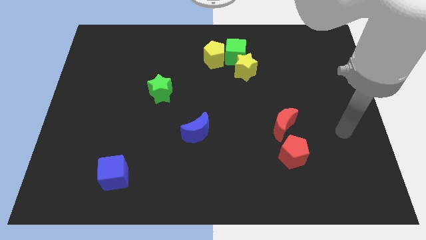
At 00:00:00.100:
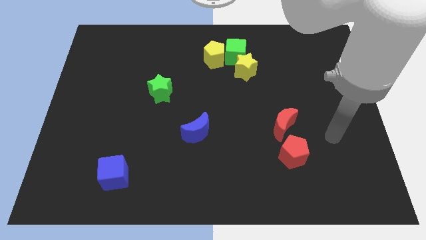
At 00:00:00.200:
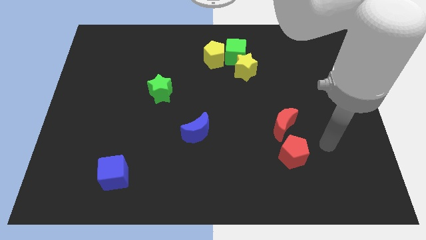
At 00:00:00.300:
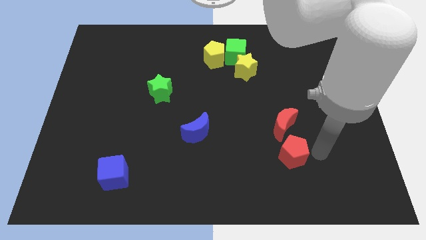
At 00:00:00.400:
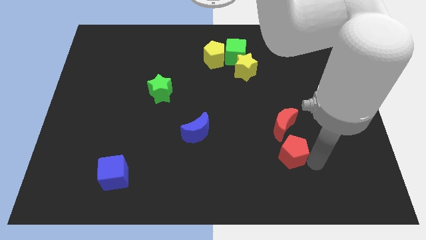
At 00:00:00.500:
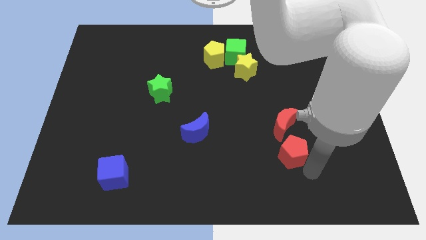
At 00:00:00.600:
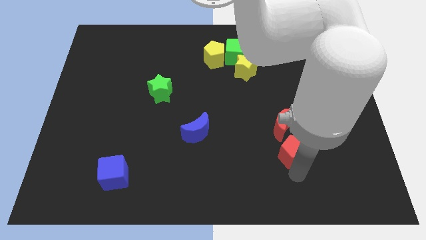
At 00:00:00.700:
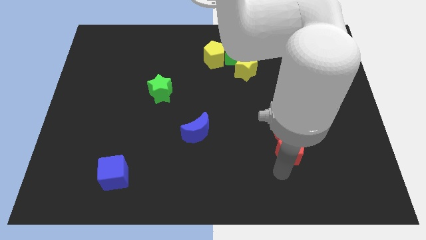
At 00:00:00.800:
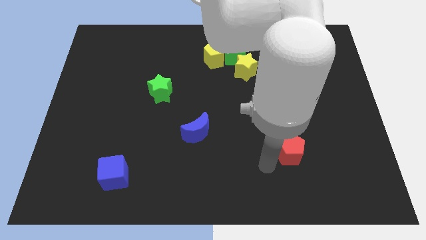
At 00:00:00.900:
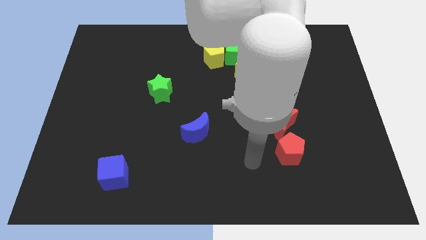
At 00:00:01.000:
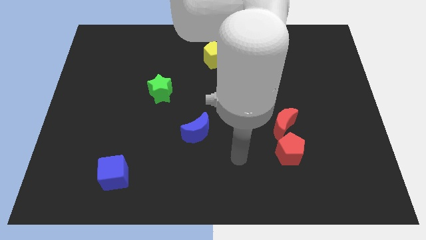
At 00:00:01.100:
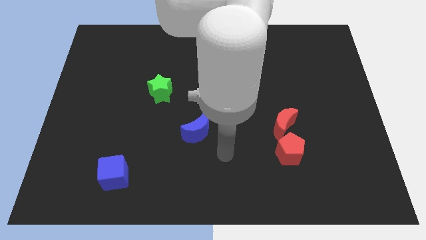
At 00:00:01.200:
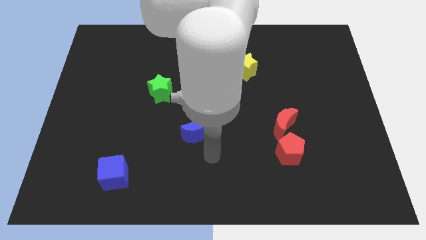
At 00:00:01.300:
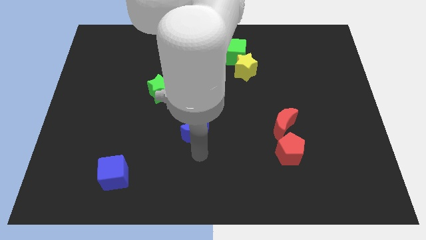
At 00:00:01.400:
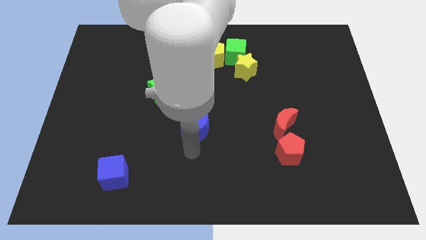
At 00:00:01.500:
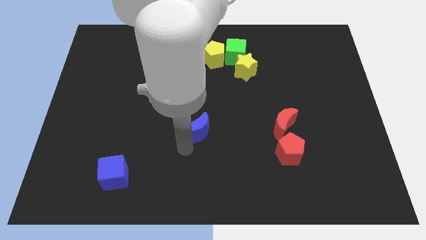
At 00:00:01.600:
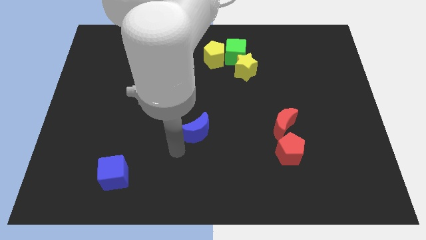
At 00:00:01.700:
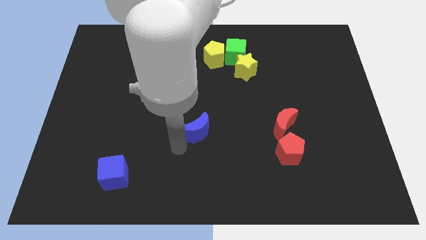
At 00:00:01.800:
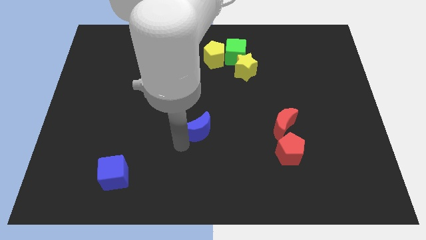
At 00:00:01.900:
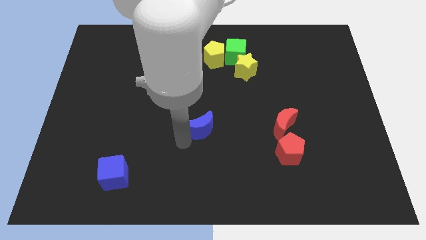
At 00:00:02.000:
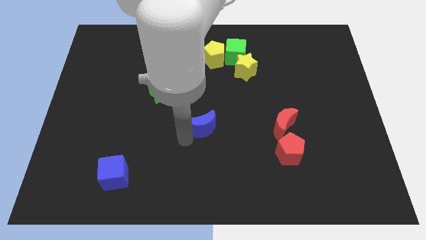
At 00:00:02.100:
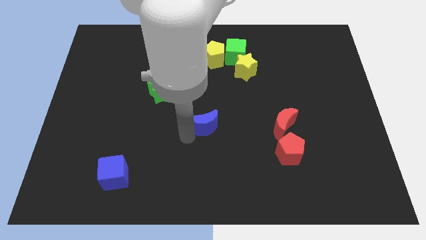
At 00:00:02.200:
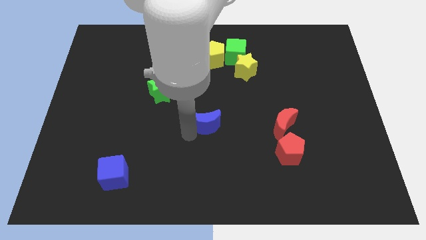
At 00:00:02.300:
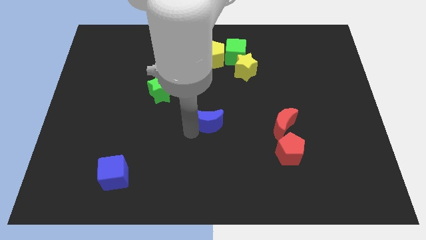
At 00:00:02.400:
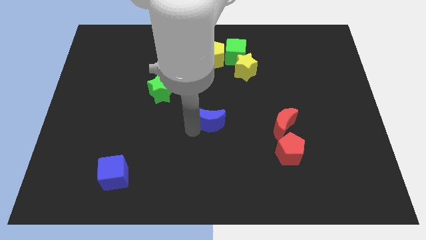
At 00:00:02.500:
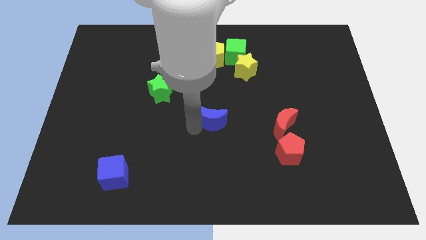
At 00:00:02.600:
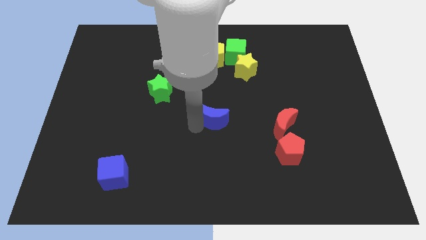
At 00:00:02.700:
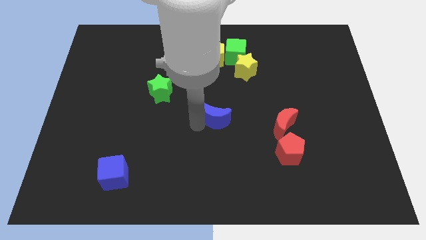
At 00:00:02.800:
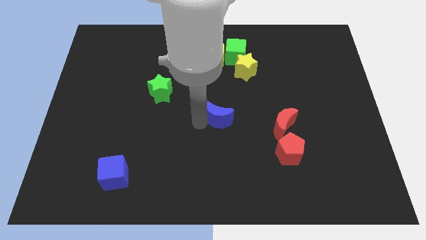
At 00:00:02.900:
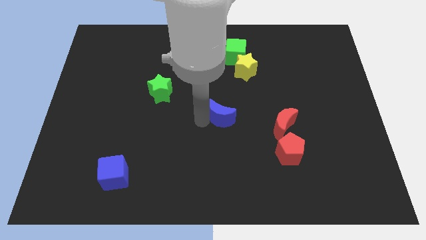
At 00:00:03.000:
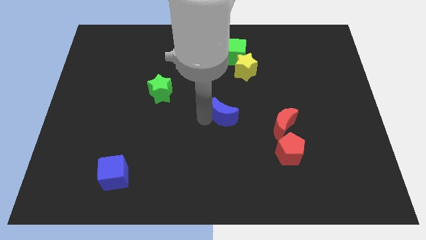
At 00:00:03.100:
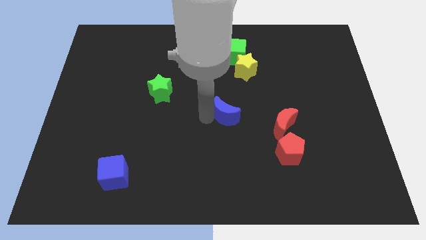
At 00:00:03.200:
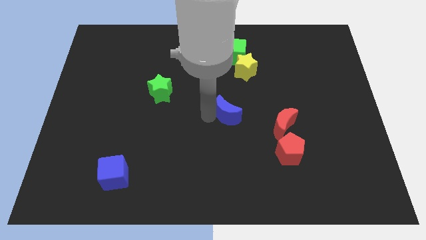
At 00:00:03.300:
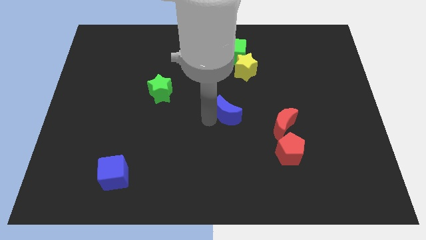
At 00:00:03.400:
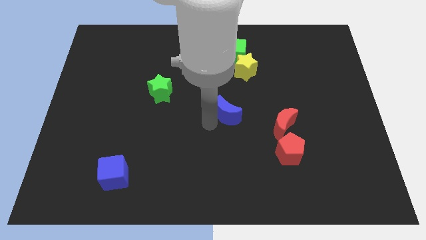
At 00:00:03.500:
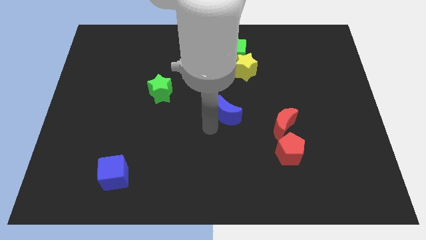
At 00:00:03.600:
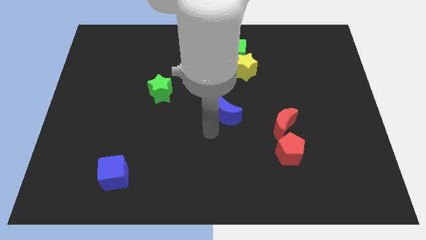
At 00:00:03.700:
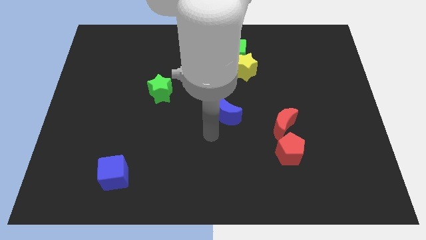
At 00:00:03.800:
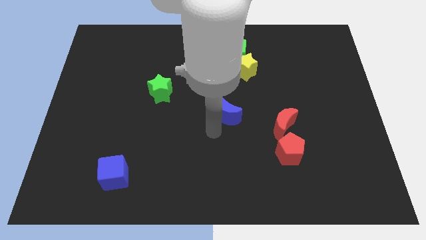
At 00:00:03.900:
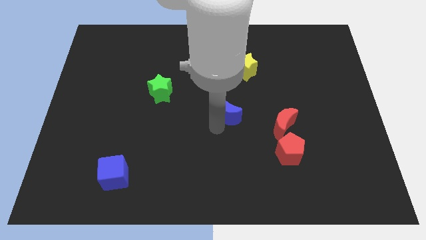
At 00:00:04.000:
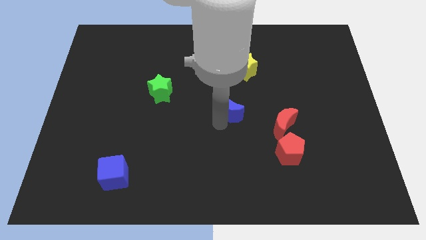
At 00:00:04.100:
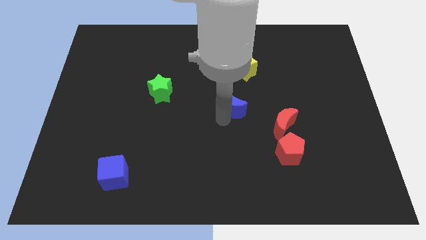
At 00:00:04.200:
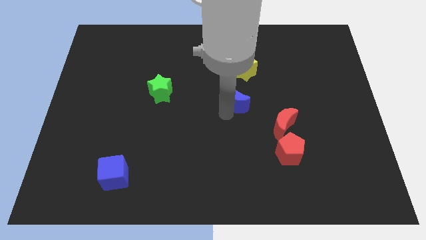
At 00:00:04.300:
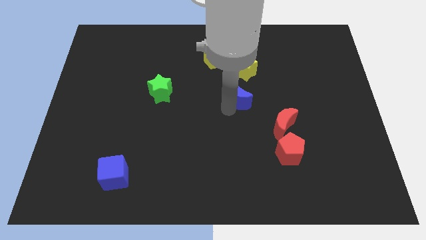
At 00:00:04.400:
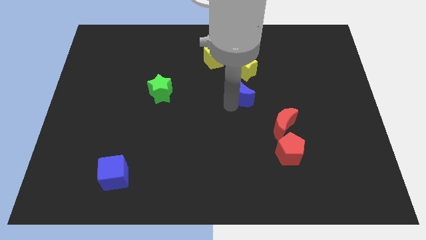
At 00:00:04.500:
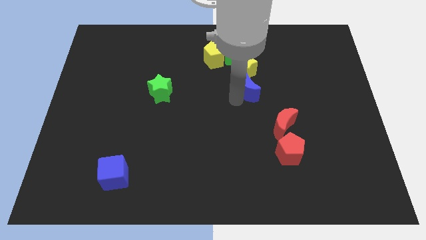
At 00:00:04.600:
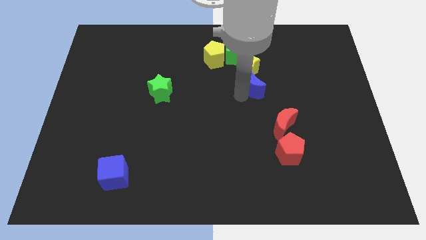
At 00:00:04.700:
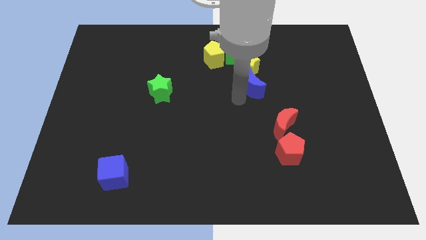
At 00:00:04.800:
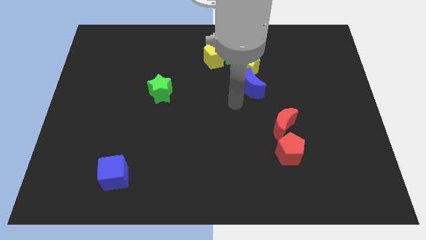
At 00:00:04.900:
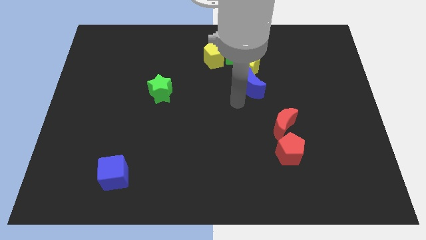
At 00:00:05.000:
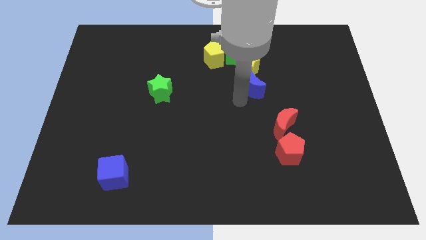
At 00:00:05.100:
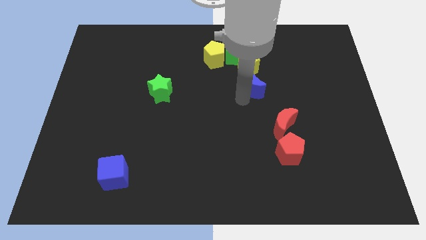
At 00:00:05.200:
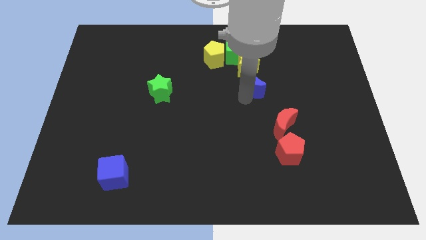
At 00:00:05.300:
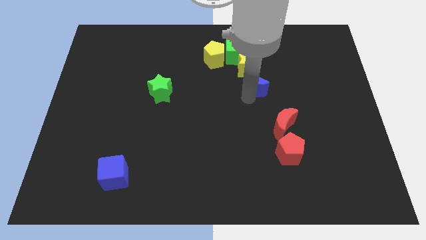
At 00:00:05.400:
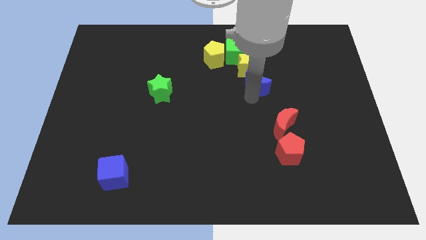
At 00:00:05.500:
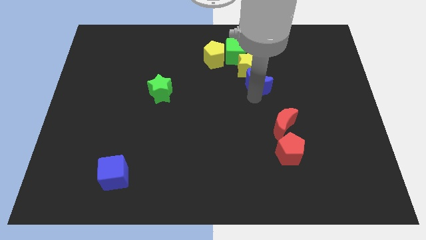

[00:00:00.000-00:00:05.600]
push the blue moon upwards and to the right diagonally

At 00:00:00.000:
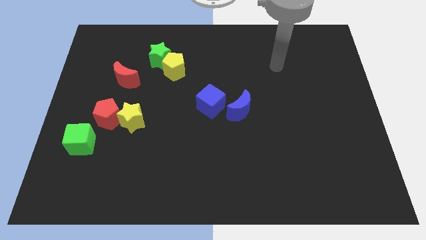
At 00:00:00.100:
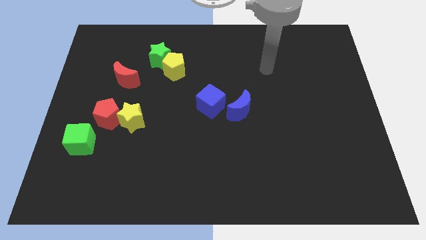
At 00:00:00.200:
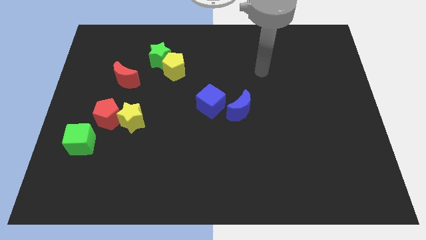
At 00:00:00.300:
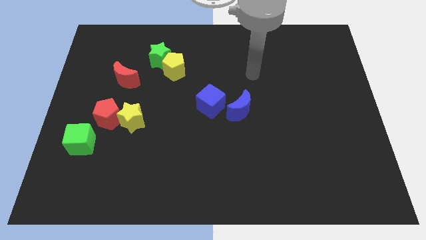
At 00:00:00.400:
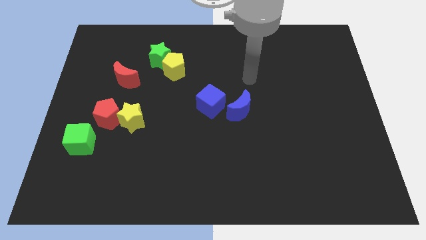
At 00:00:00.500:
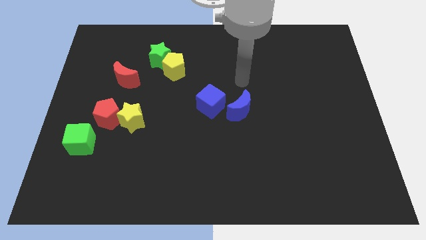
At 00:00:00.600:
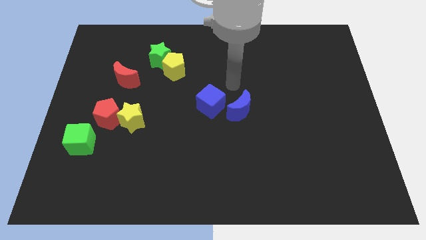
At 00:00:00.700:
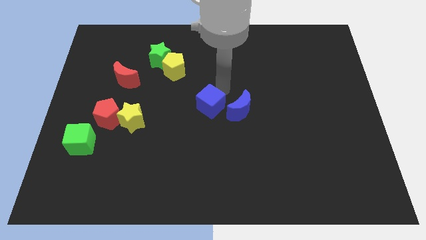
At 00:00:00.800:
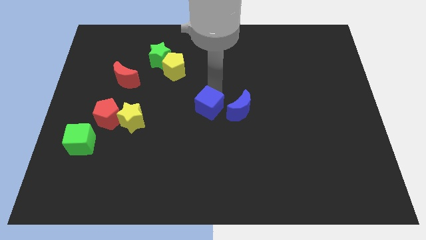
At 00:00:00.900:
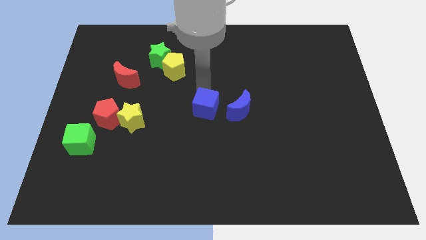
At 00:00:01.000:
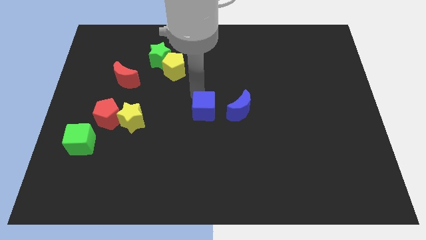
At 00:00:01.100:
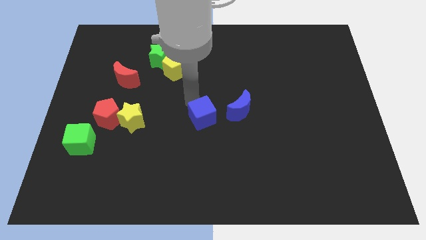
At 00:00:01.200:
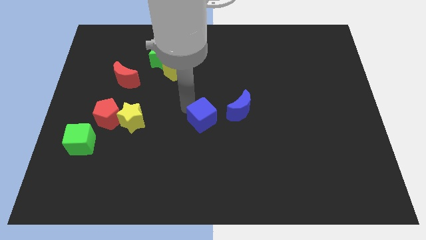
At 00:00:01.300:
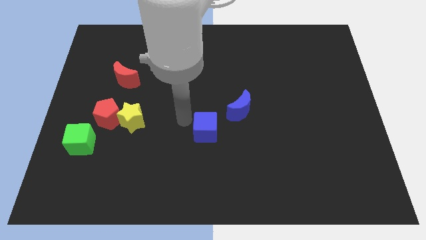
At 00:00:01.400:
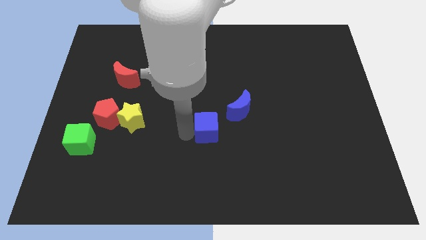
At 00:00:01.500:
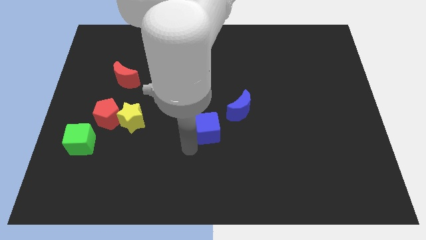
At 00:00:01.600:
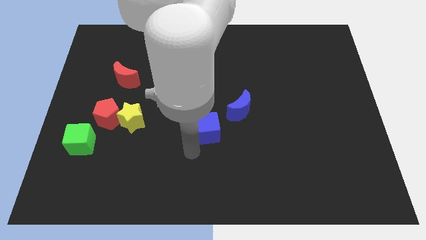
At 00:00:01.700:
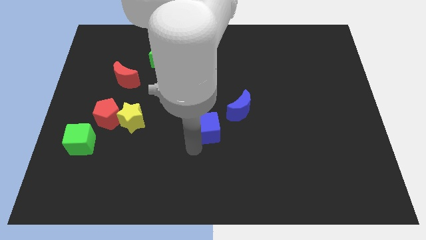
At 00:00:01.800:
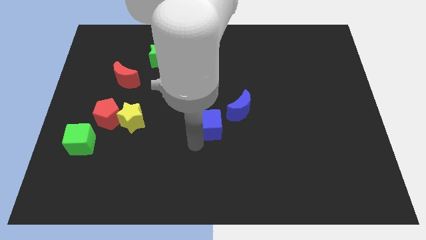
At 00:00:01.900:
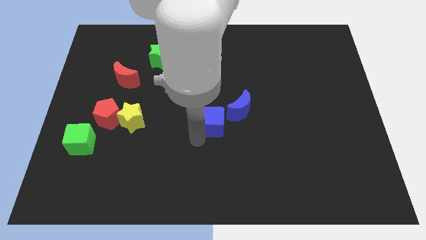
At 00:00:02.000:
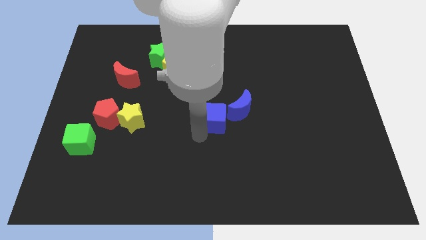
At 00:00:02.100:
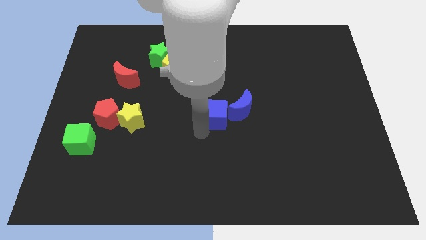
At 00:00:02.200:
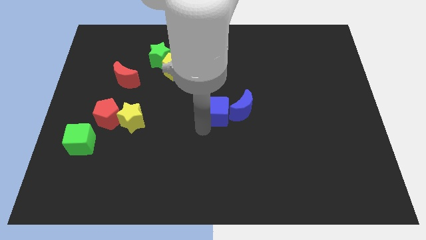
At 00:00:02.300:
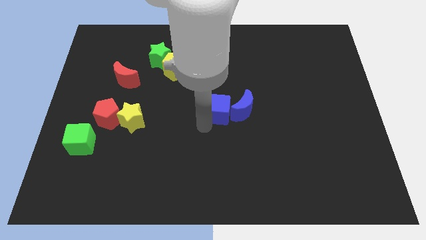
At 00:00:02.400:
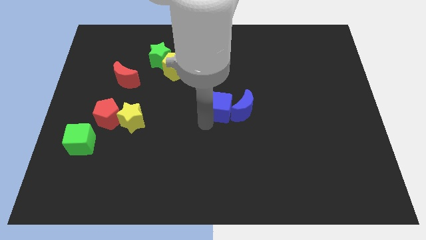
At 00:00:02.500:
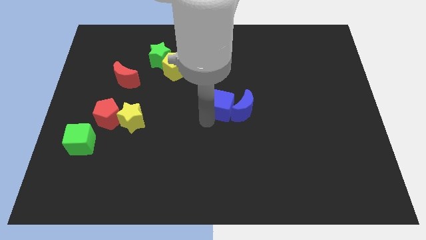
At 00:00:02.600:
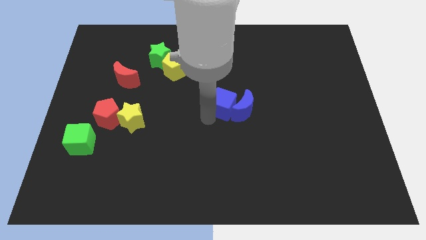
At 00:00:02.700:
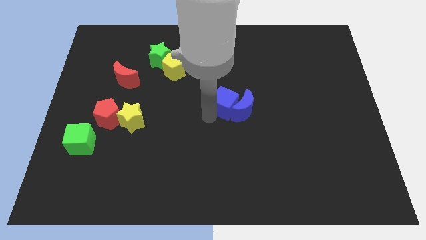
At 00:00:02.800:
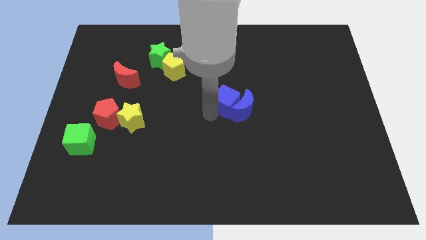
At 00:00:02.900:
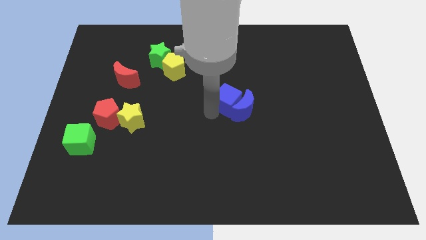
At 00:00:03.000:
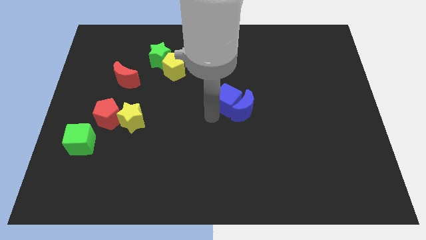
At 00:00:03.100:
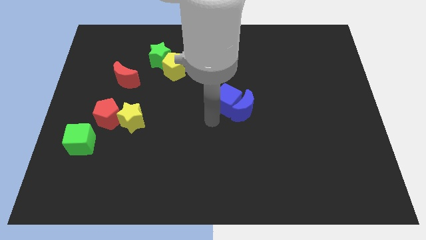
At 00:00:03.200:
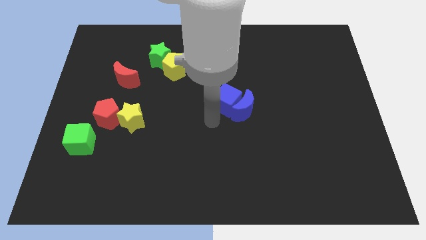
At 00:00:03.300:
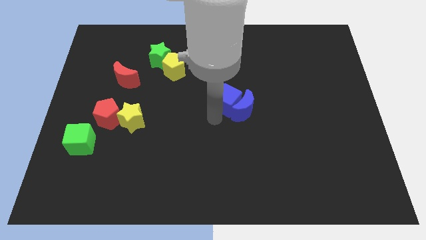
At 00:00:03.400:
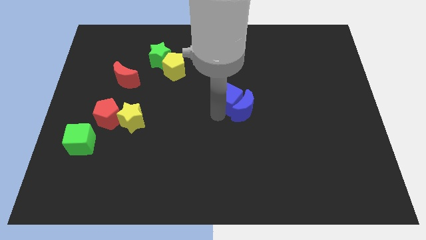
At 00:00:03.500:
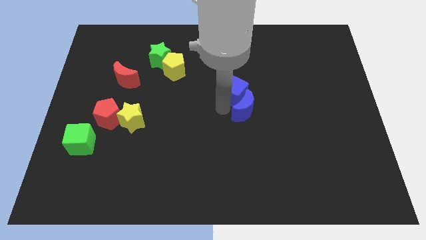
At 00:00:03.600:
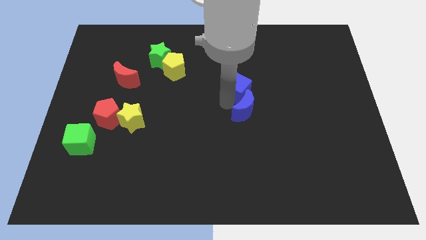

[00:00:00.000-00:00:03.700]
slightly move the blue cube diagonally up and to the right
